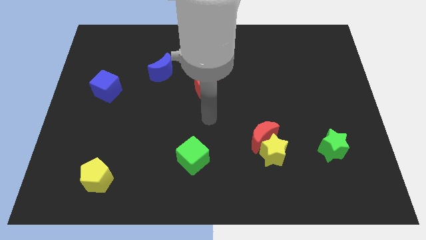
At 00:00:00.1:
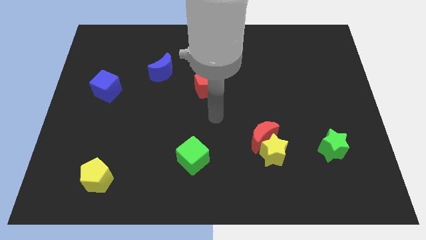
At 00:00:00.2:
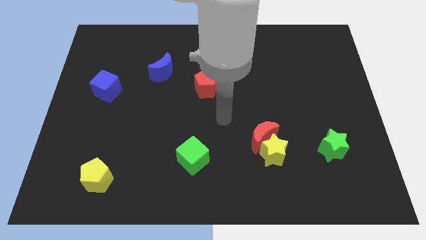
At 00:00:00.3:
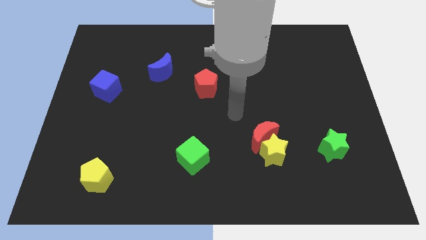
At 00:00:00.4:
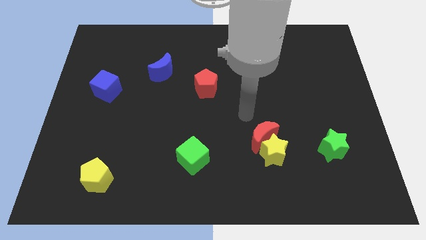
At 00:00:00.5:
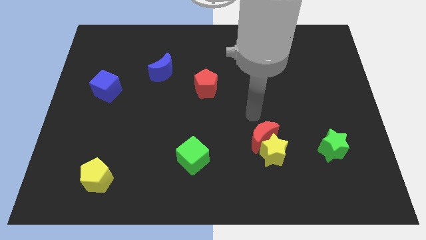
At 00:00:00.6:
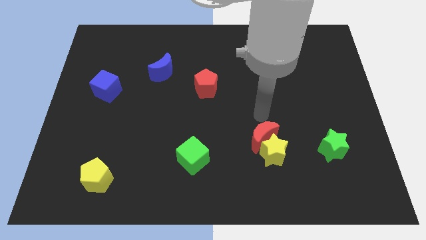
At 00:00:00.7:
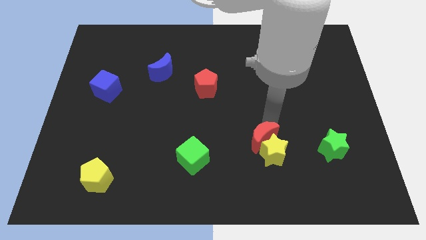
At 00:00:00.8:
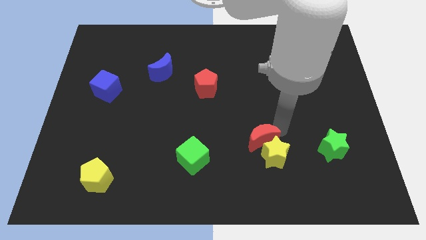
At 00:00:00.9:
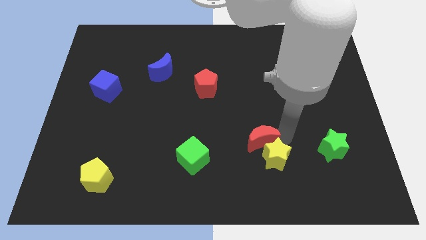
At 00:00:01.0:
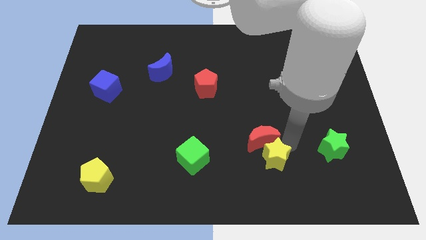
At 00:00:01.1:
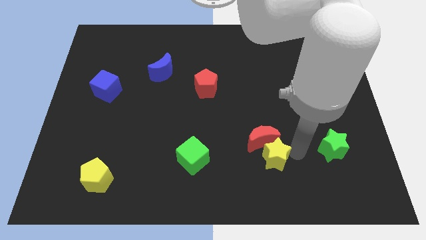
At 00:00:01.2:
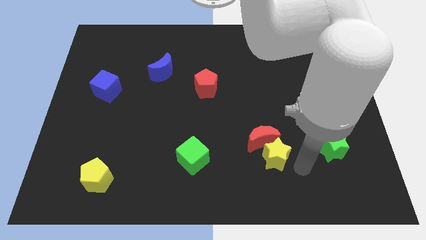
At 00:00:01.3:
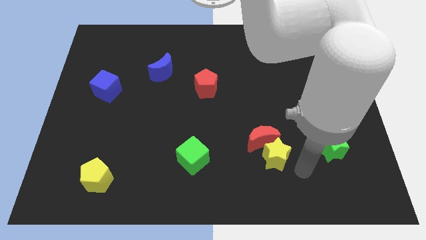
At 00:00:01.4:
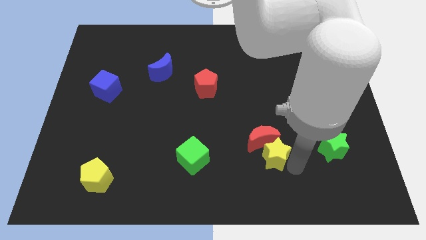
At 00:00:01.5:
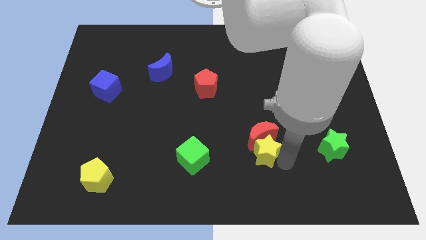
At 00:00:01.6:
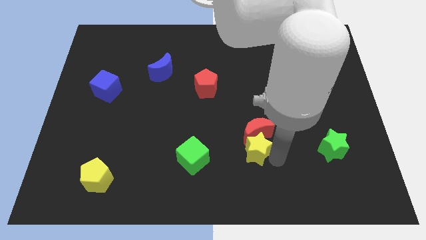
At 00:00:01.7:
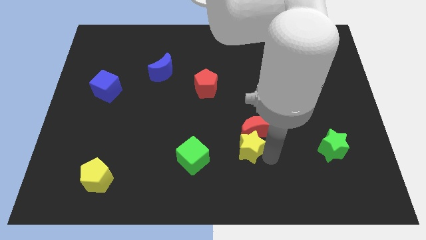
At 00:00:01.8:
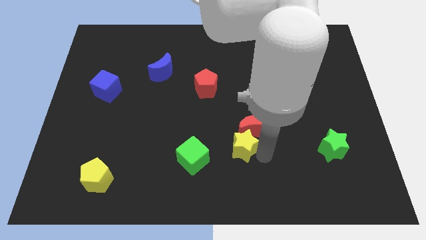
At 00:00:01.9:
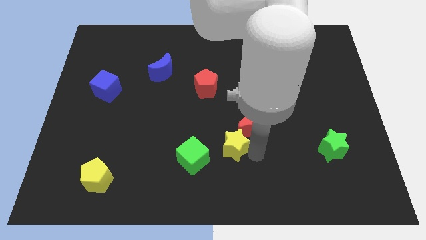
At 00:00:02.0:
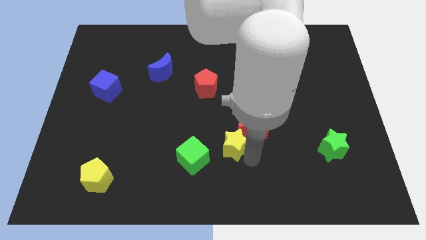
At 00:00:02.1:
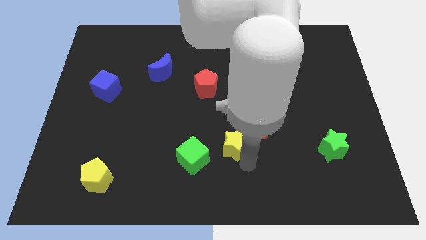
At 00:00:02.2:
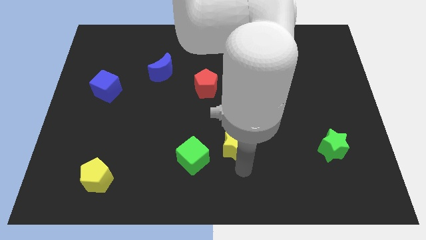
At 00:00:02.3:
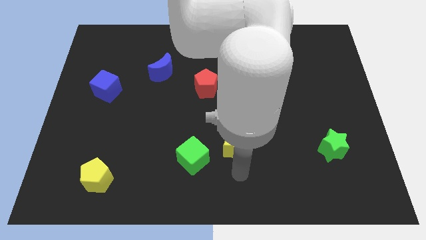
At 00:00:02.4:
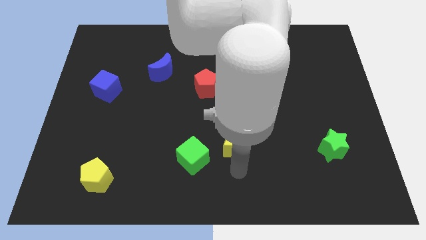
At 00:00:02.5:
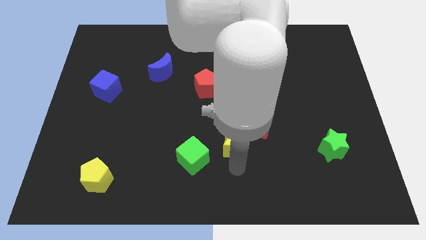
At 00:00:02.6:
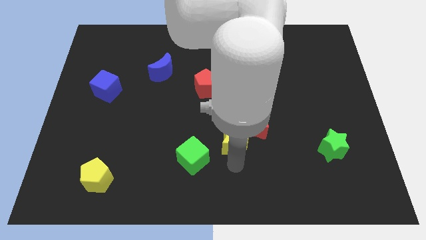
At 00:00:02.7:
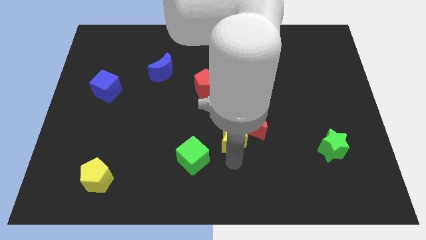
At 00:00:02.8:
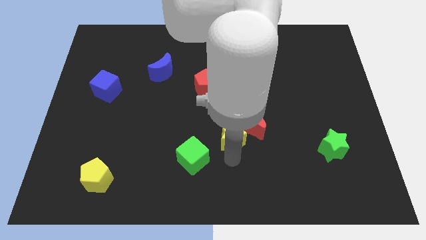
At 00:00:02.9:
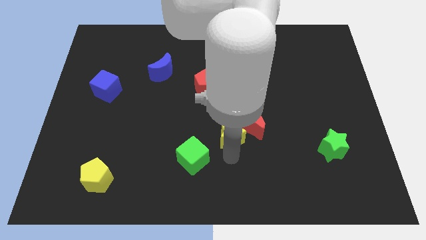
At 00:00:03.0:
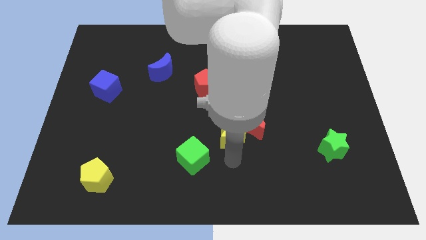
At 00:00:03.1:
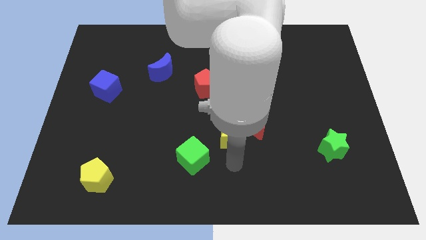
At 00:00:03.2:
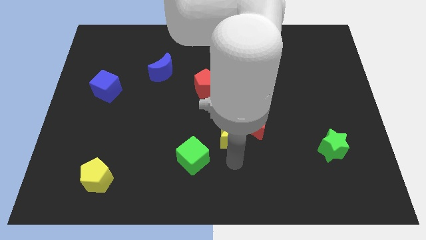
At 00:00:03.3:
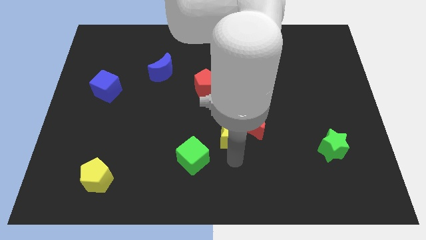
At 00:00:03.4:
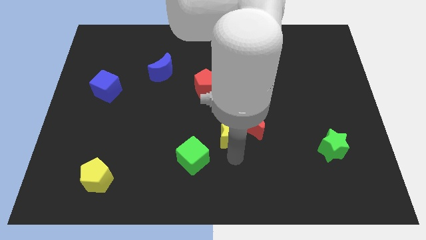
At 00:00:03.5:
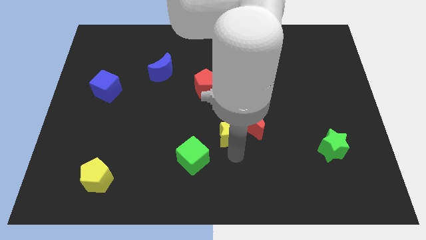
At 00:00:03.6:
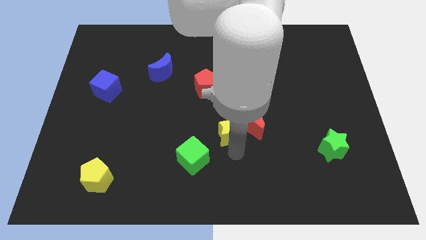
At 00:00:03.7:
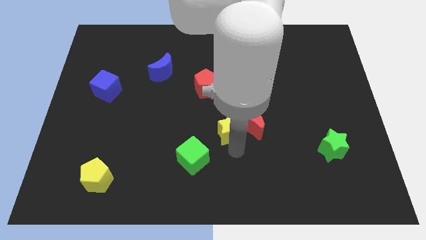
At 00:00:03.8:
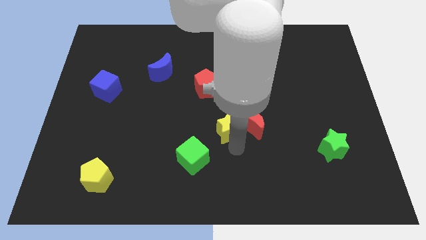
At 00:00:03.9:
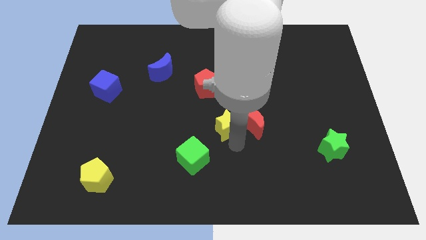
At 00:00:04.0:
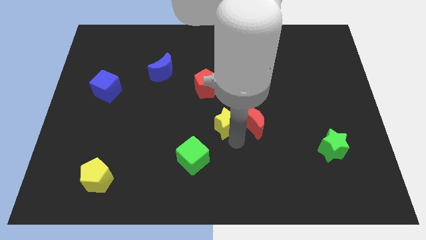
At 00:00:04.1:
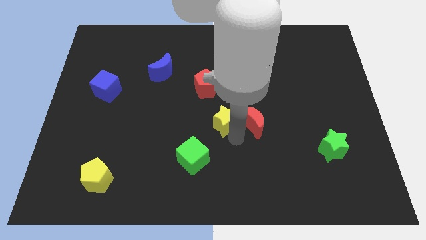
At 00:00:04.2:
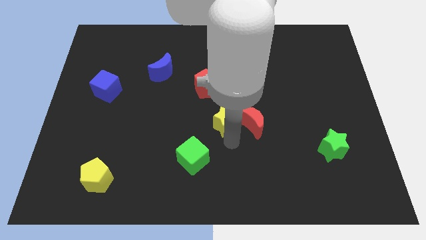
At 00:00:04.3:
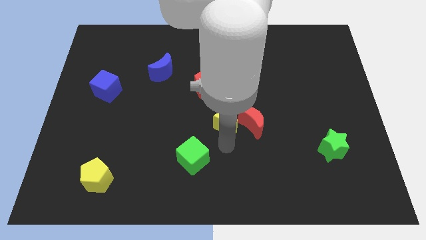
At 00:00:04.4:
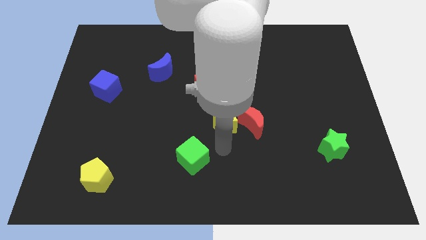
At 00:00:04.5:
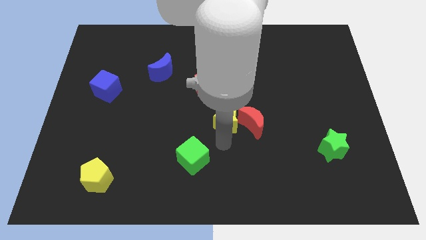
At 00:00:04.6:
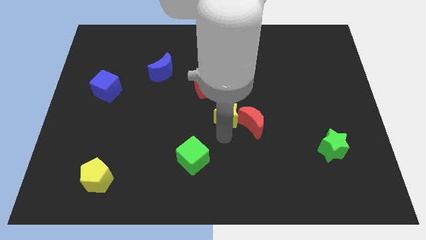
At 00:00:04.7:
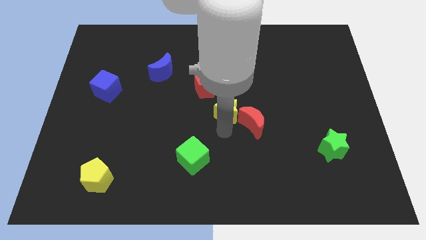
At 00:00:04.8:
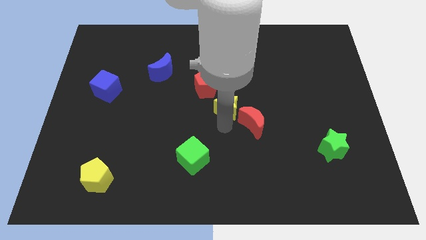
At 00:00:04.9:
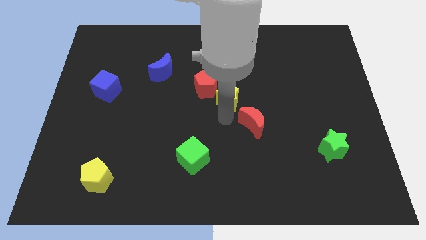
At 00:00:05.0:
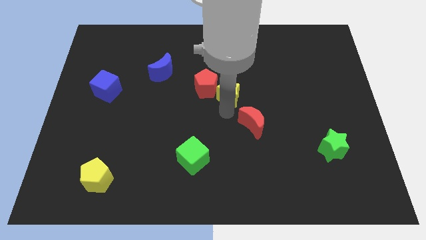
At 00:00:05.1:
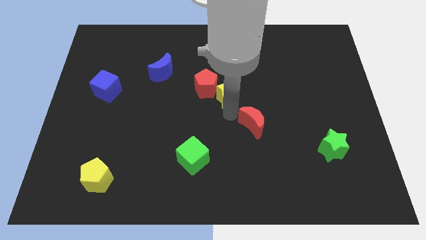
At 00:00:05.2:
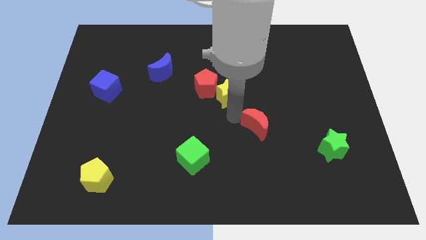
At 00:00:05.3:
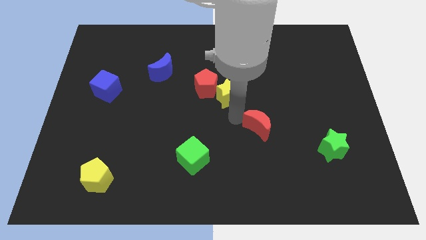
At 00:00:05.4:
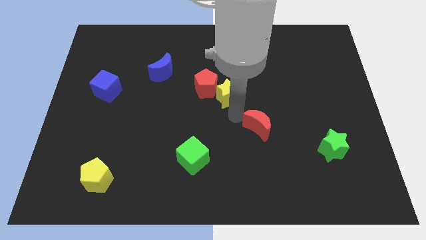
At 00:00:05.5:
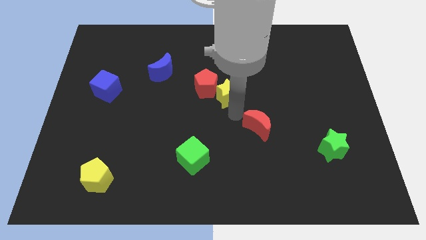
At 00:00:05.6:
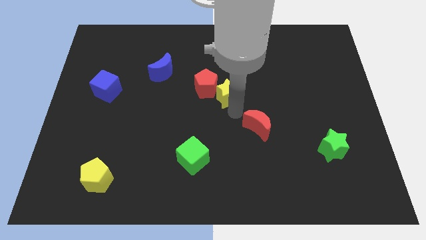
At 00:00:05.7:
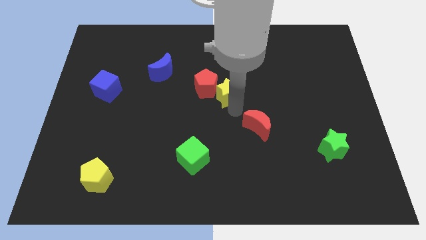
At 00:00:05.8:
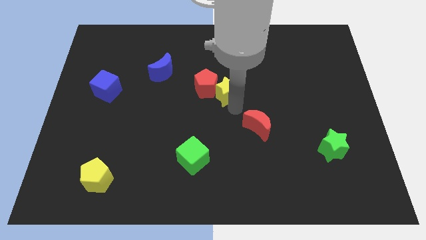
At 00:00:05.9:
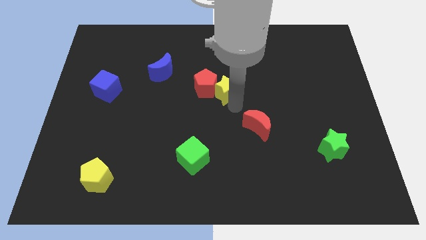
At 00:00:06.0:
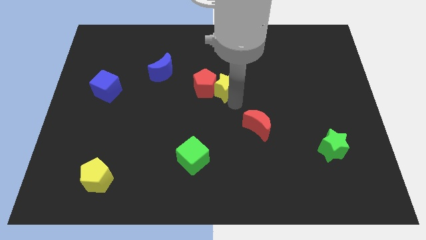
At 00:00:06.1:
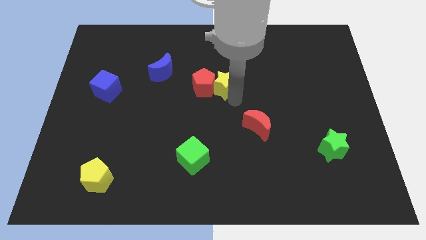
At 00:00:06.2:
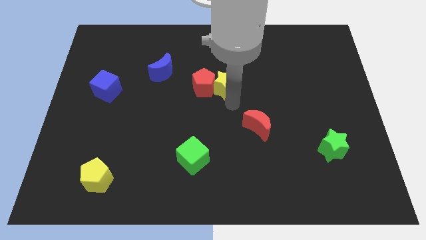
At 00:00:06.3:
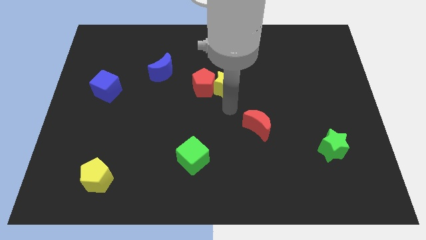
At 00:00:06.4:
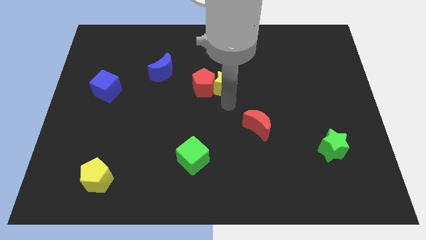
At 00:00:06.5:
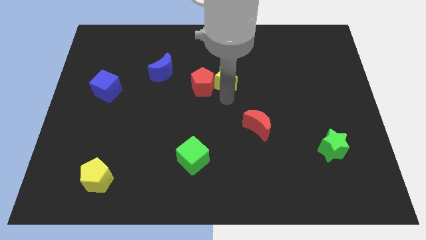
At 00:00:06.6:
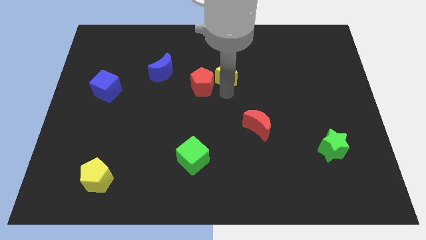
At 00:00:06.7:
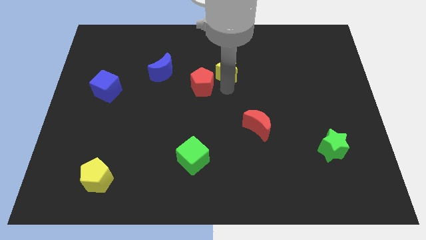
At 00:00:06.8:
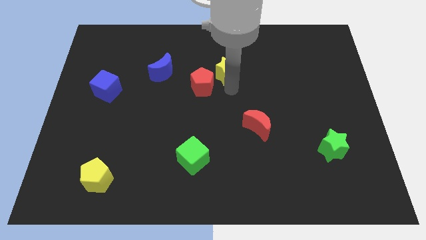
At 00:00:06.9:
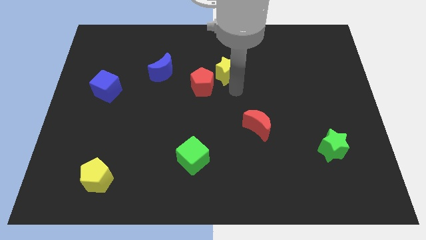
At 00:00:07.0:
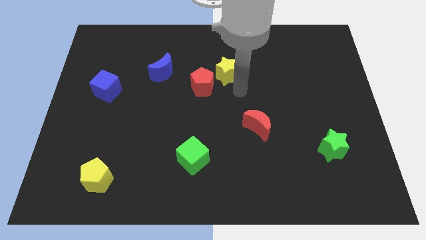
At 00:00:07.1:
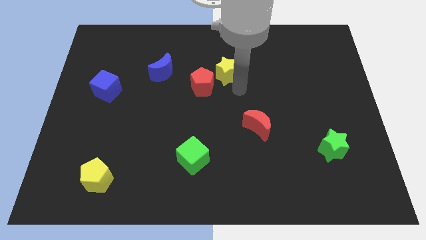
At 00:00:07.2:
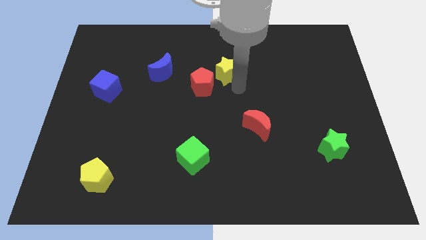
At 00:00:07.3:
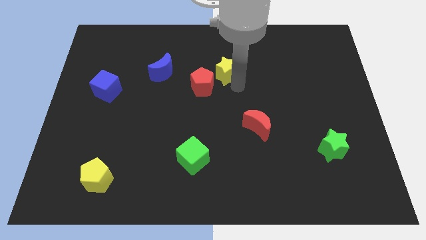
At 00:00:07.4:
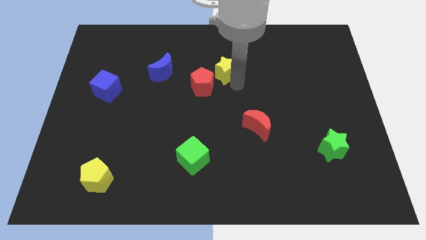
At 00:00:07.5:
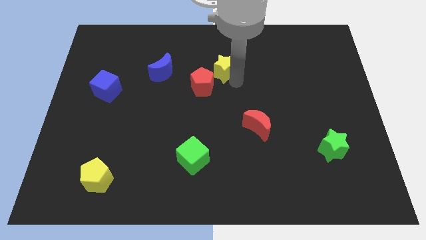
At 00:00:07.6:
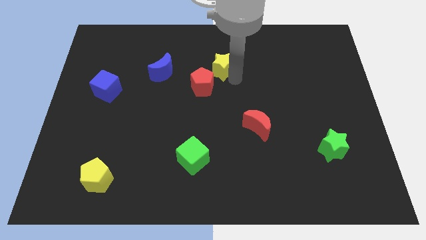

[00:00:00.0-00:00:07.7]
move the yellow star to the top side of the red pentagon
